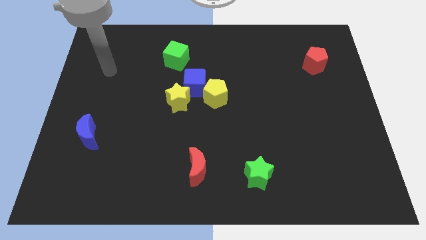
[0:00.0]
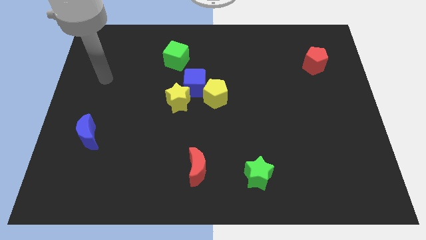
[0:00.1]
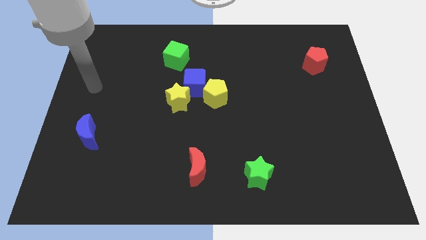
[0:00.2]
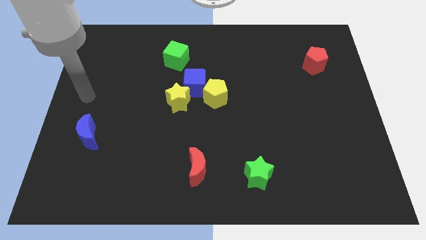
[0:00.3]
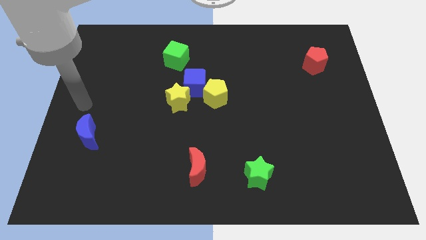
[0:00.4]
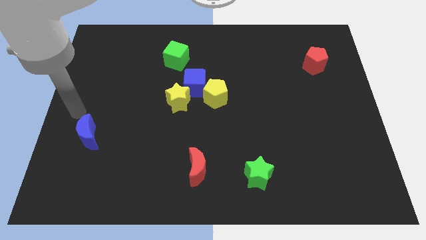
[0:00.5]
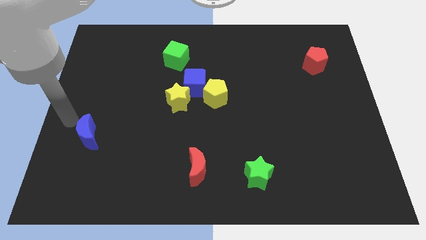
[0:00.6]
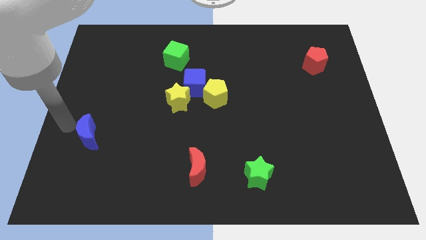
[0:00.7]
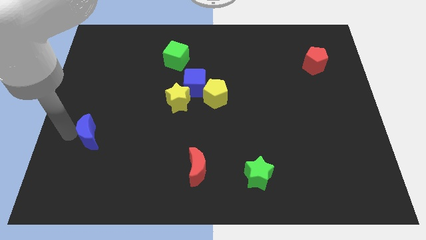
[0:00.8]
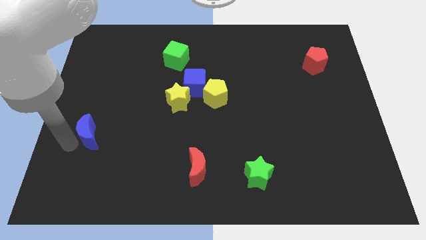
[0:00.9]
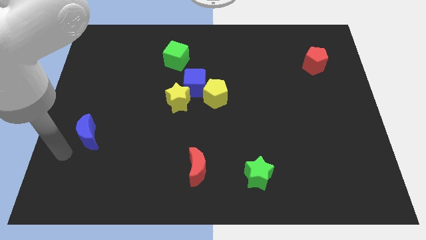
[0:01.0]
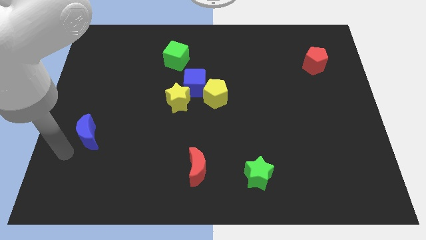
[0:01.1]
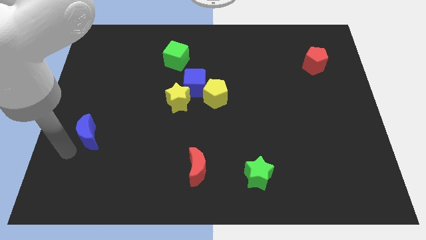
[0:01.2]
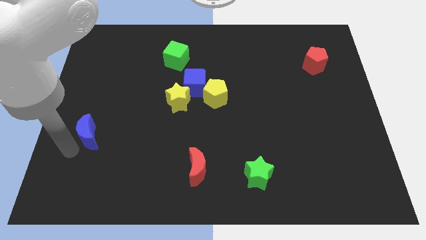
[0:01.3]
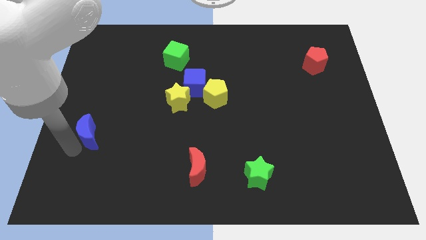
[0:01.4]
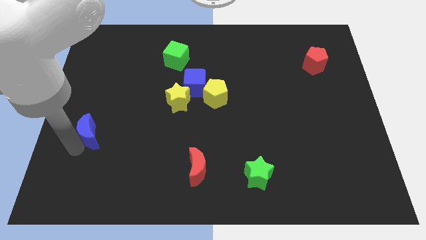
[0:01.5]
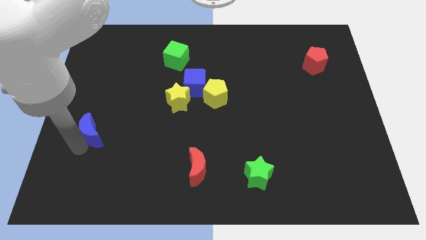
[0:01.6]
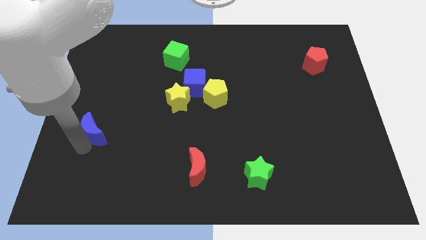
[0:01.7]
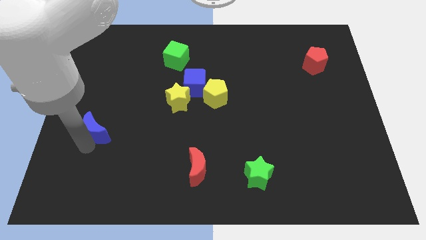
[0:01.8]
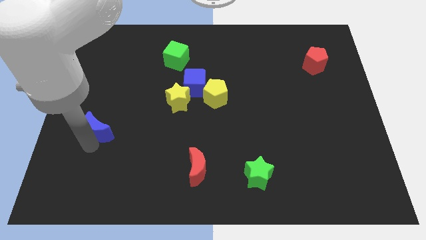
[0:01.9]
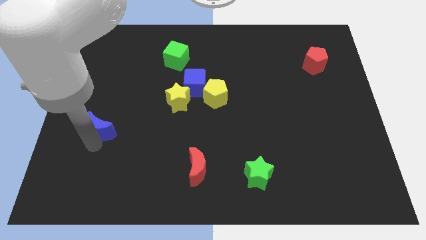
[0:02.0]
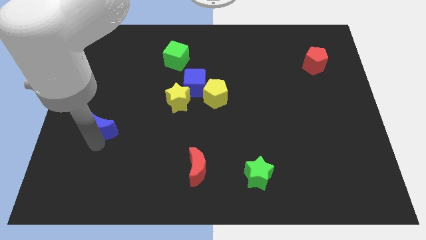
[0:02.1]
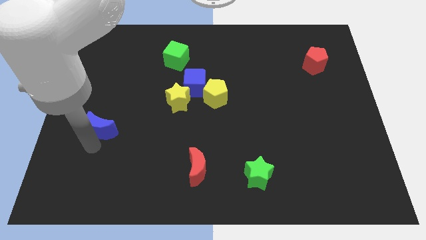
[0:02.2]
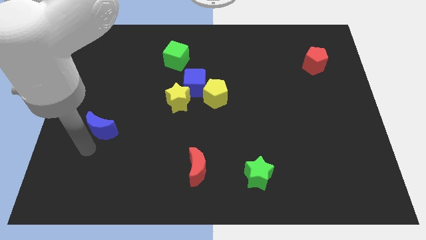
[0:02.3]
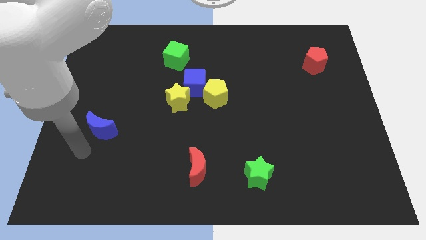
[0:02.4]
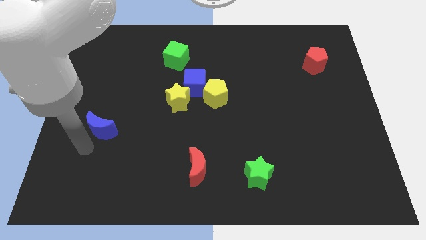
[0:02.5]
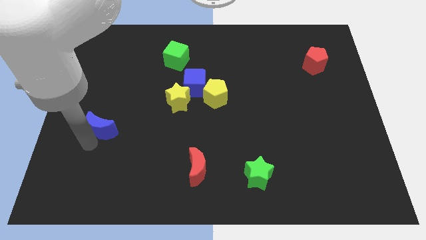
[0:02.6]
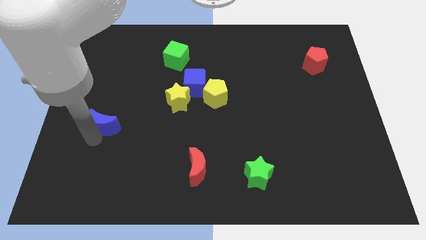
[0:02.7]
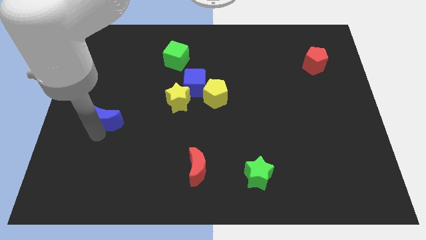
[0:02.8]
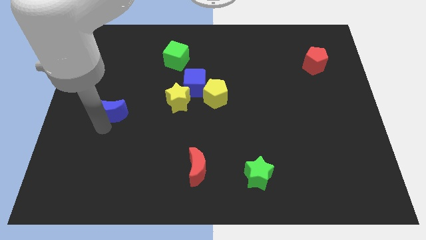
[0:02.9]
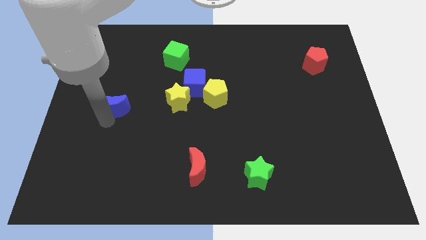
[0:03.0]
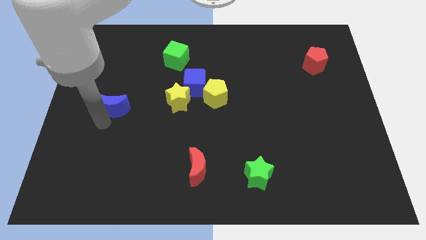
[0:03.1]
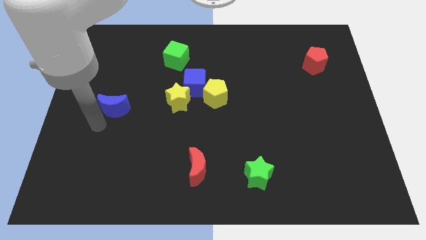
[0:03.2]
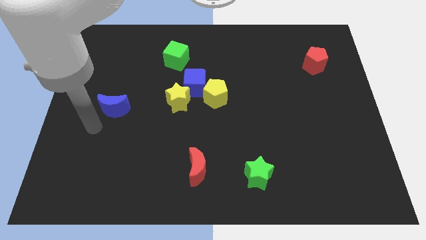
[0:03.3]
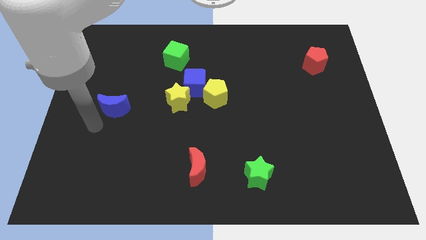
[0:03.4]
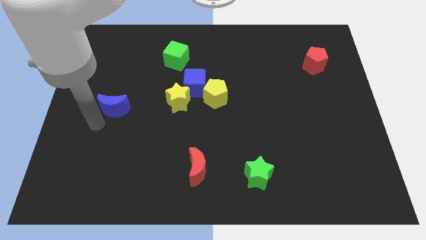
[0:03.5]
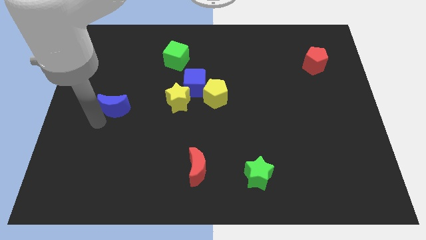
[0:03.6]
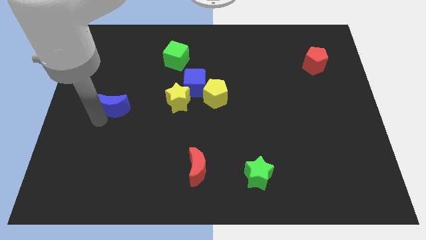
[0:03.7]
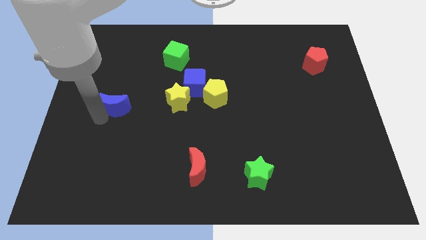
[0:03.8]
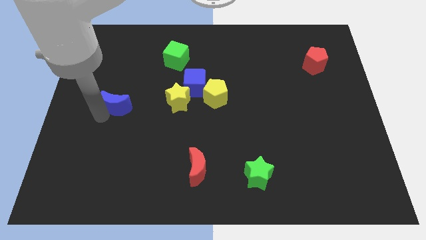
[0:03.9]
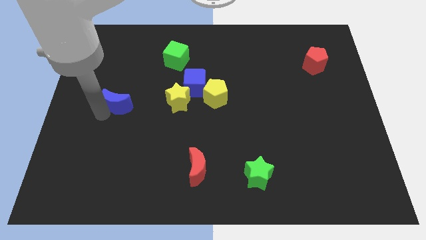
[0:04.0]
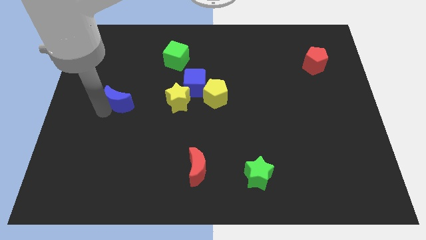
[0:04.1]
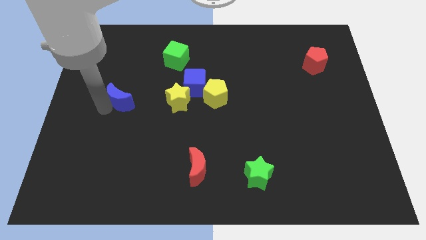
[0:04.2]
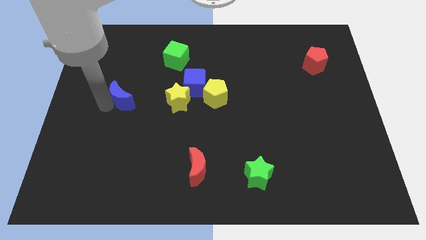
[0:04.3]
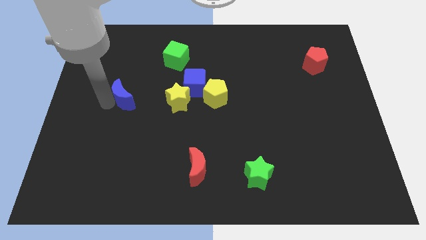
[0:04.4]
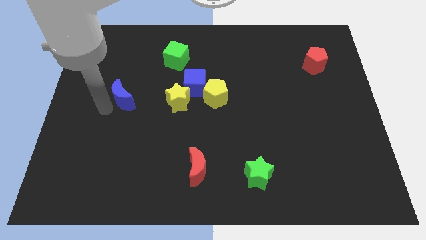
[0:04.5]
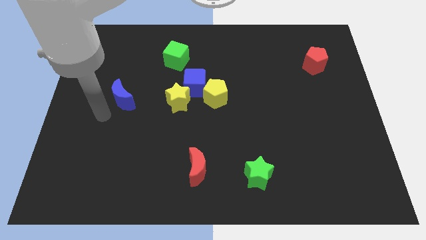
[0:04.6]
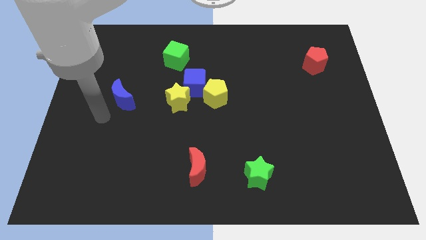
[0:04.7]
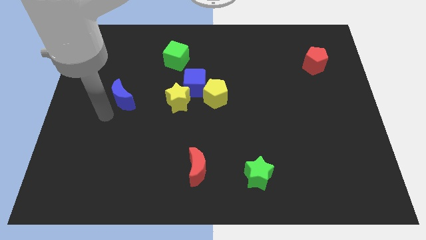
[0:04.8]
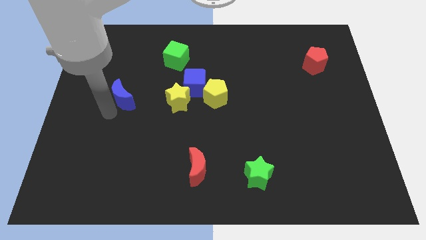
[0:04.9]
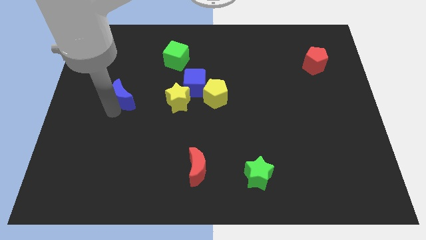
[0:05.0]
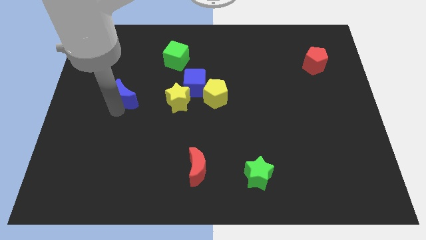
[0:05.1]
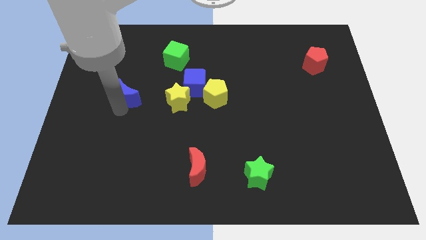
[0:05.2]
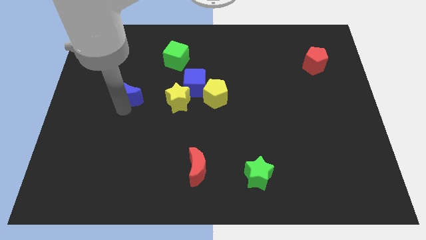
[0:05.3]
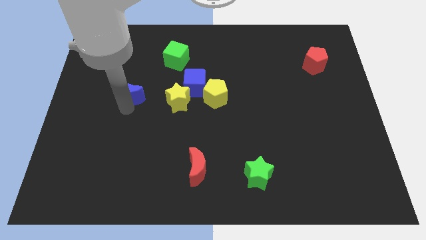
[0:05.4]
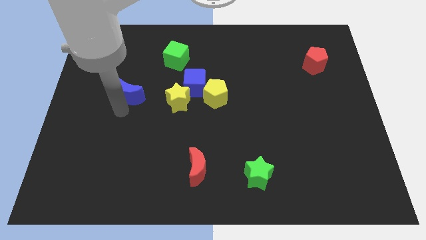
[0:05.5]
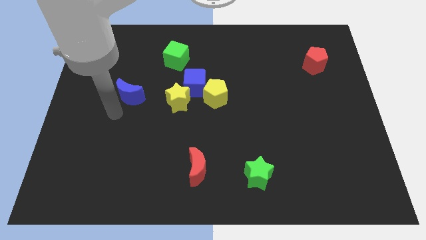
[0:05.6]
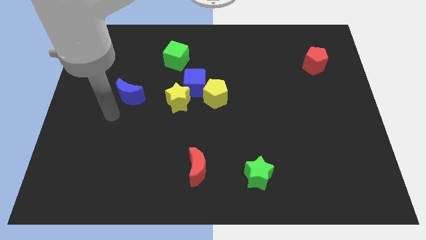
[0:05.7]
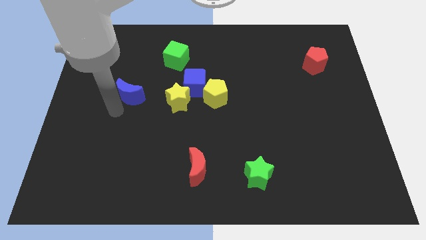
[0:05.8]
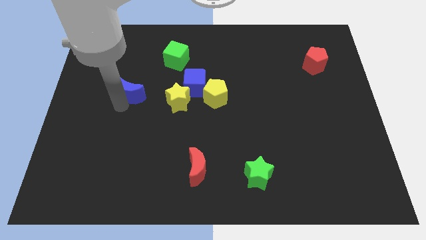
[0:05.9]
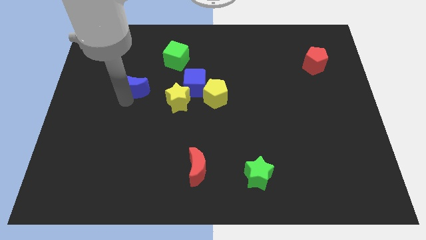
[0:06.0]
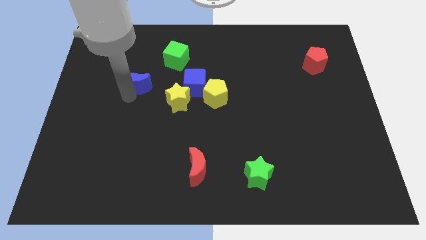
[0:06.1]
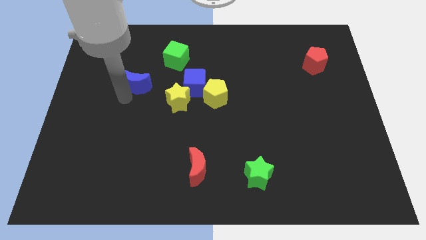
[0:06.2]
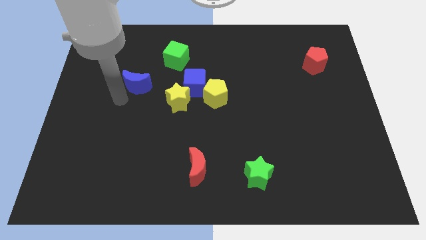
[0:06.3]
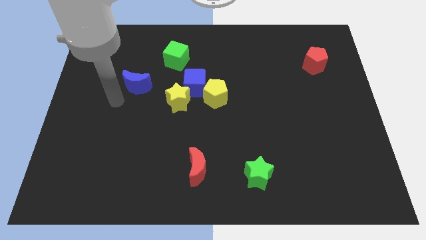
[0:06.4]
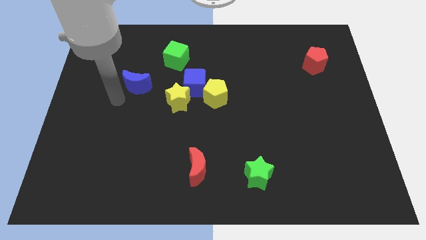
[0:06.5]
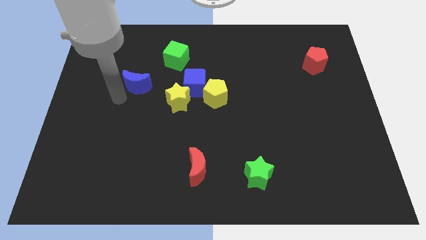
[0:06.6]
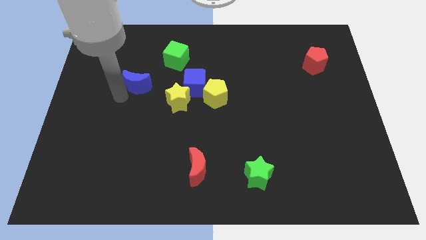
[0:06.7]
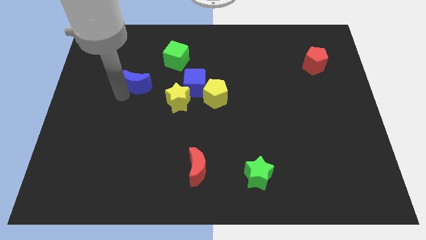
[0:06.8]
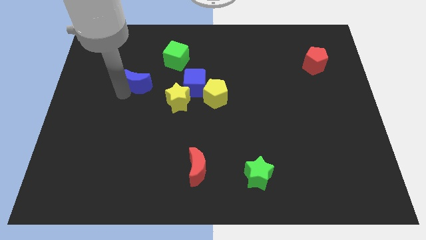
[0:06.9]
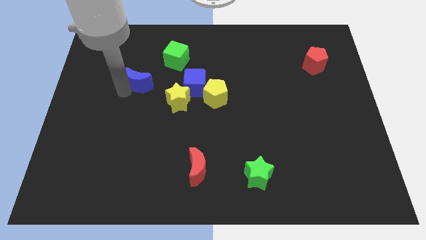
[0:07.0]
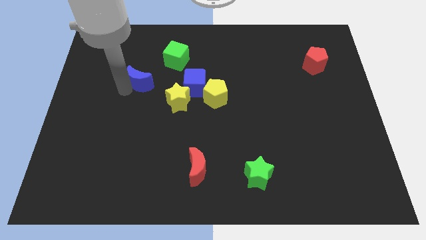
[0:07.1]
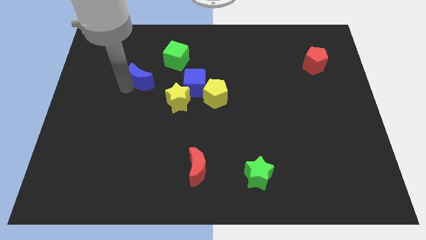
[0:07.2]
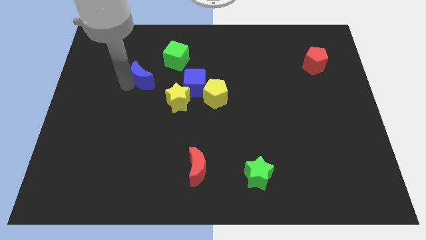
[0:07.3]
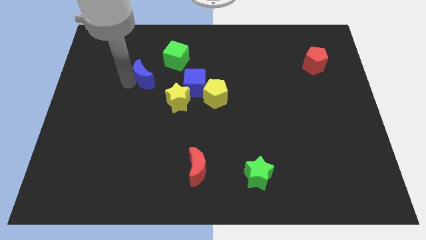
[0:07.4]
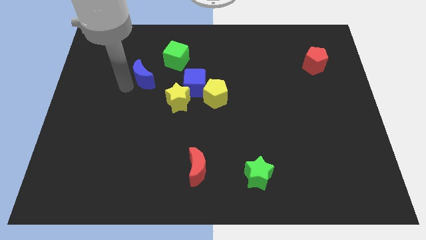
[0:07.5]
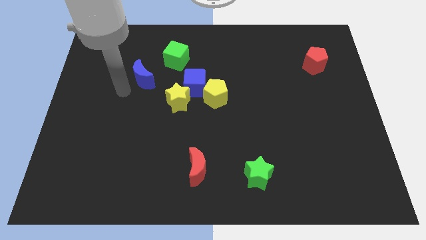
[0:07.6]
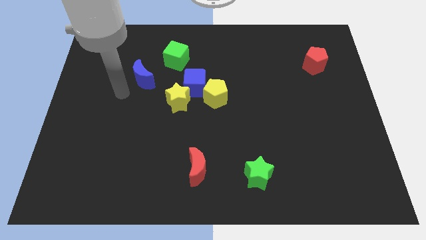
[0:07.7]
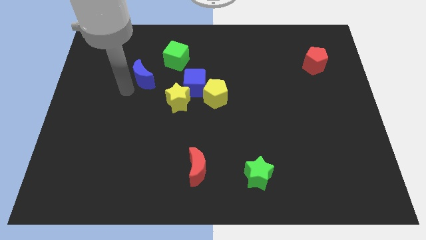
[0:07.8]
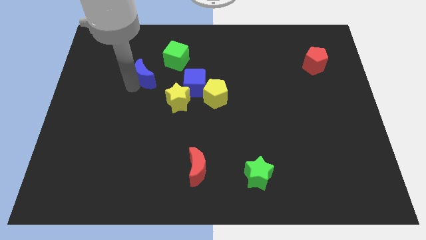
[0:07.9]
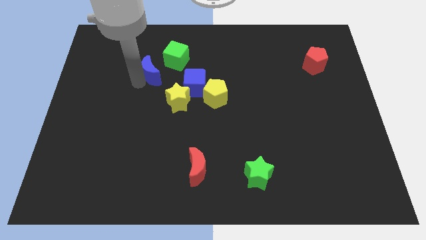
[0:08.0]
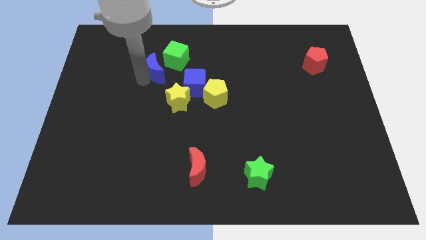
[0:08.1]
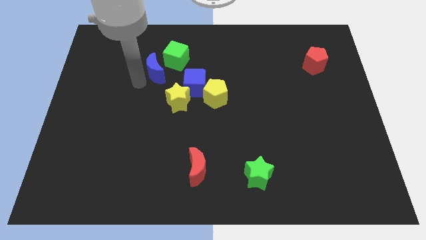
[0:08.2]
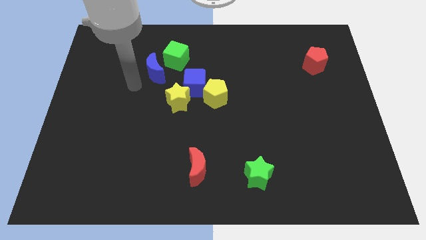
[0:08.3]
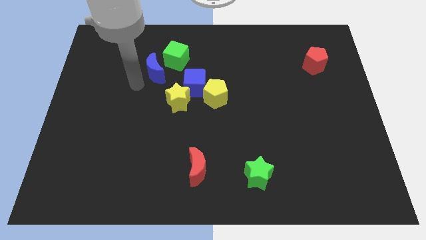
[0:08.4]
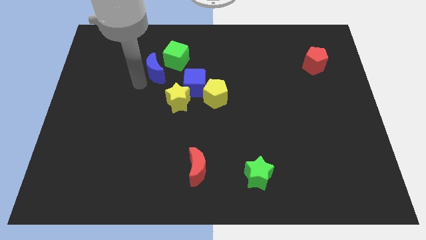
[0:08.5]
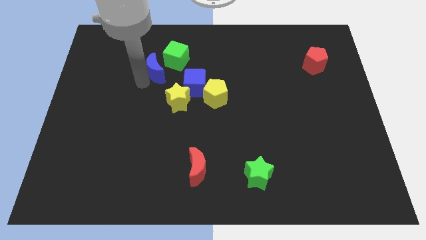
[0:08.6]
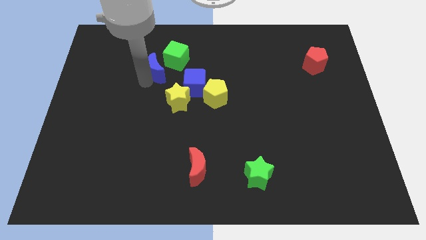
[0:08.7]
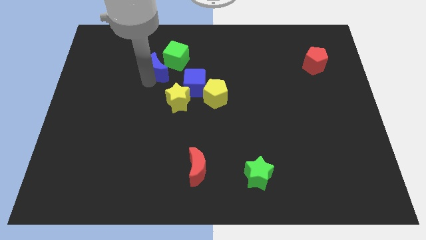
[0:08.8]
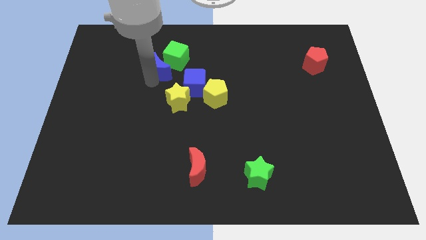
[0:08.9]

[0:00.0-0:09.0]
slide the blue moon close to the green cube
